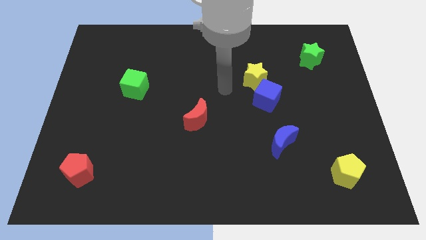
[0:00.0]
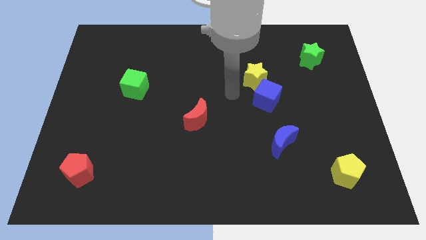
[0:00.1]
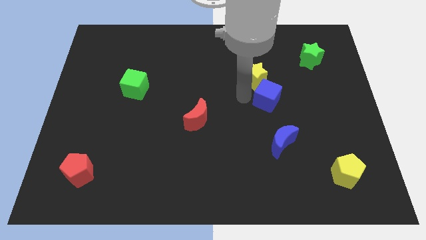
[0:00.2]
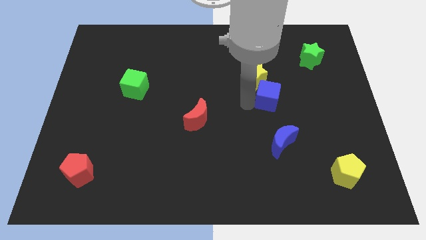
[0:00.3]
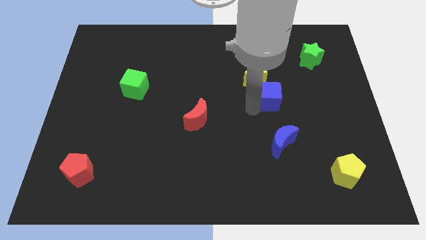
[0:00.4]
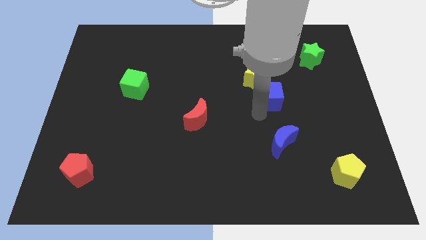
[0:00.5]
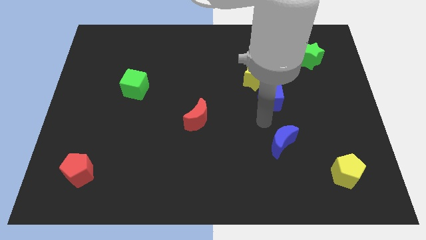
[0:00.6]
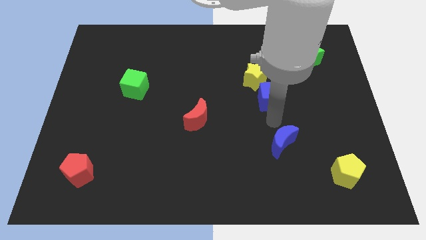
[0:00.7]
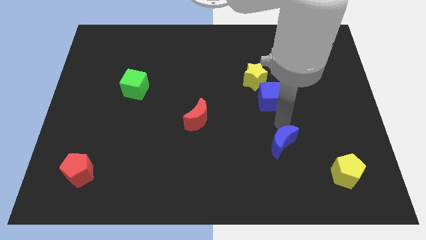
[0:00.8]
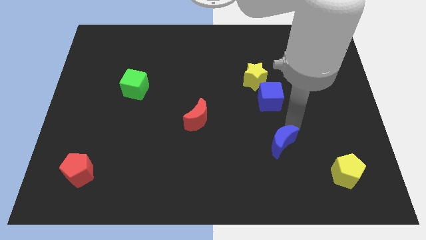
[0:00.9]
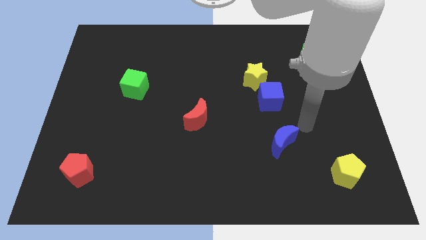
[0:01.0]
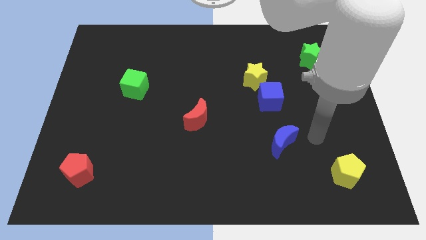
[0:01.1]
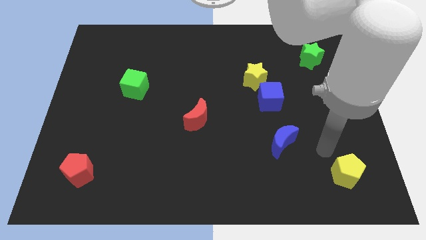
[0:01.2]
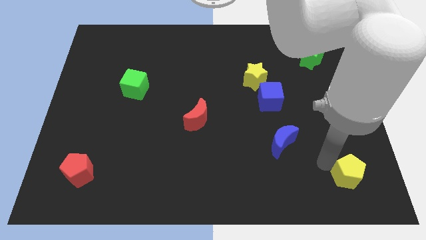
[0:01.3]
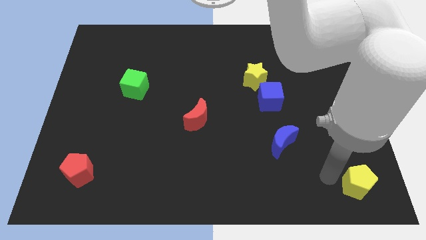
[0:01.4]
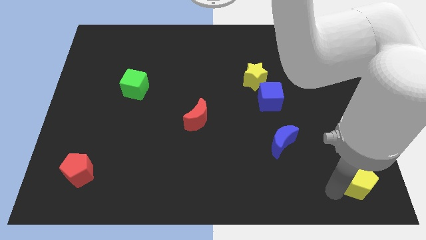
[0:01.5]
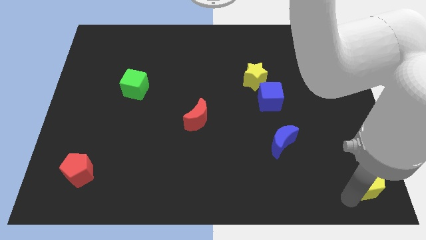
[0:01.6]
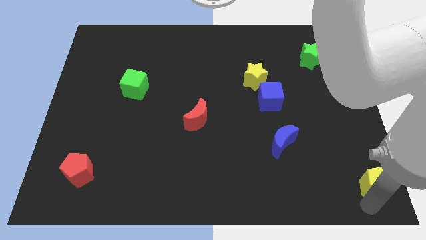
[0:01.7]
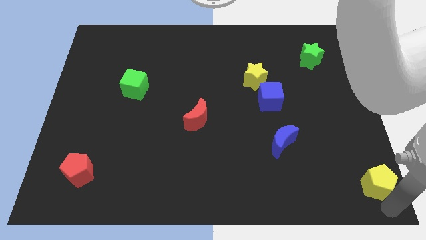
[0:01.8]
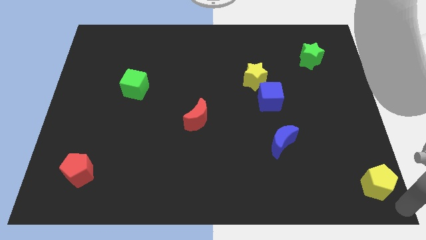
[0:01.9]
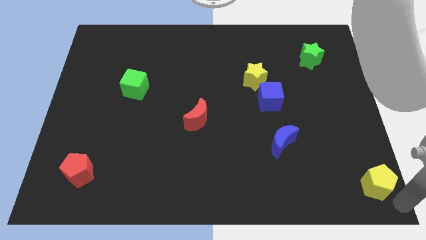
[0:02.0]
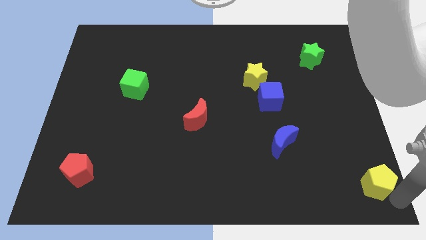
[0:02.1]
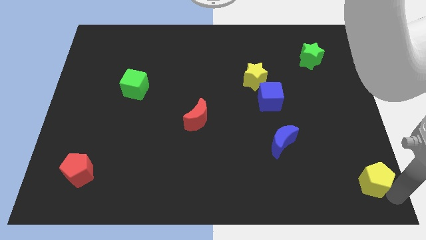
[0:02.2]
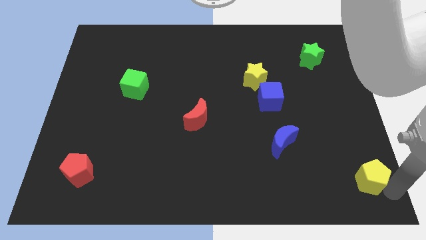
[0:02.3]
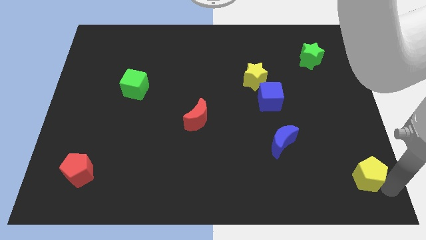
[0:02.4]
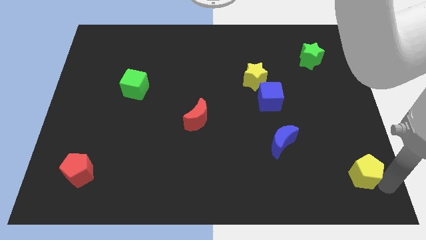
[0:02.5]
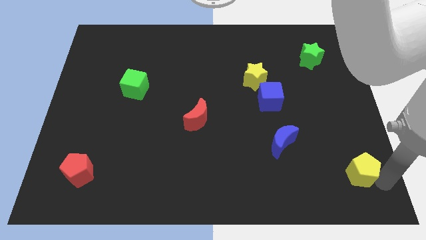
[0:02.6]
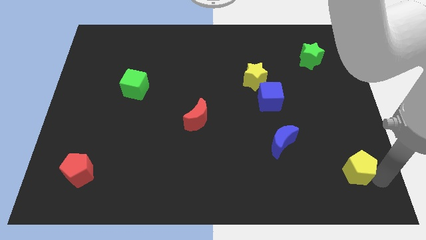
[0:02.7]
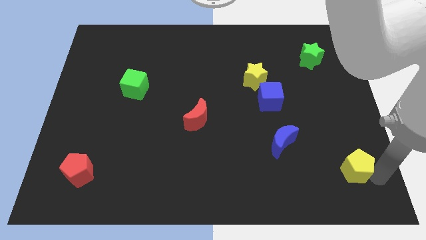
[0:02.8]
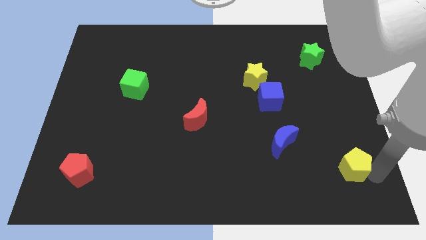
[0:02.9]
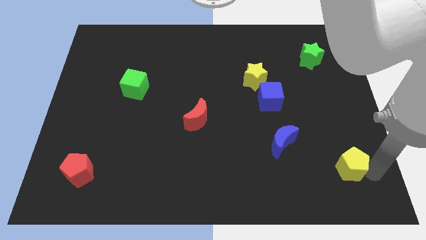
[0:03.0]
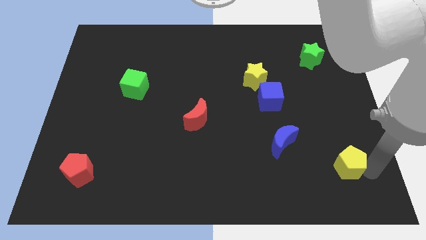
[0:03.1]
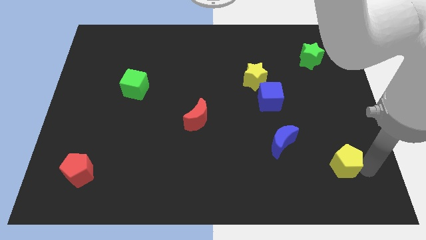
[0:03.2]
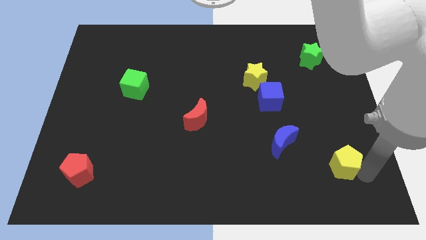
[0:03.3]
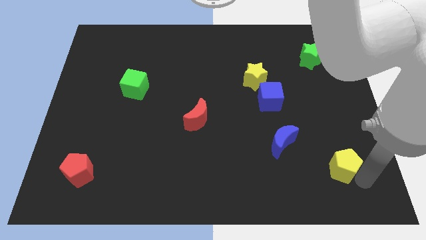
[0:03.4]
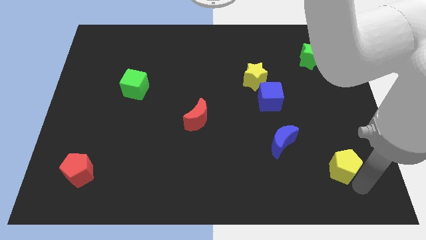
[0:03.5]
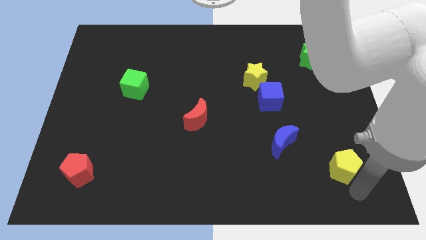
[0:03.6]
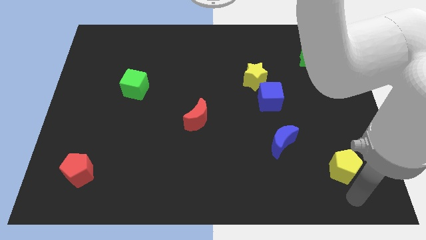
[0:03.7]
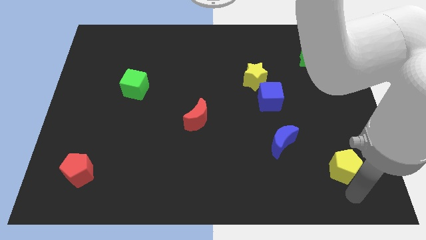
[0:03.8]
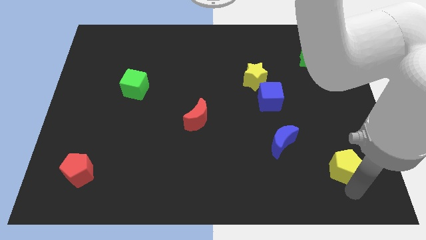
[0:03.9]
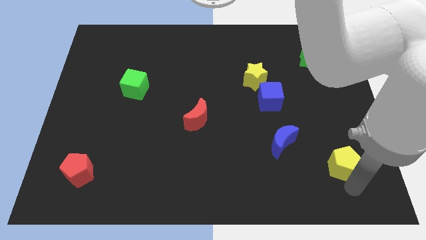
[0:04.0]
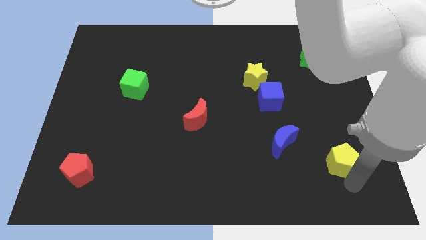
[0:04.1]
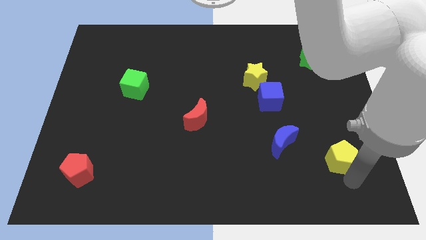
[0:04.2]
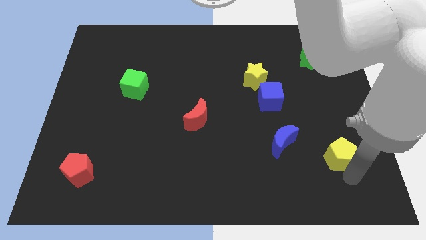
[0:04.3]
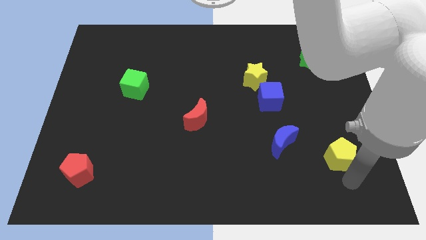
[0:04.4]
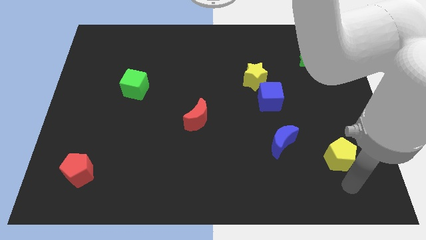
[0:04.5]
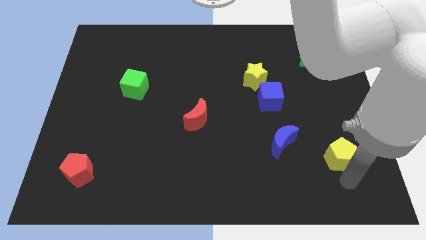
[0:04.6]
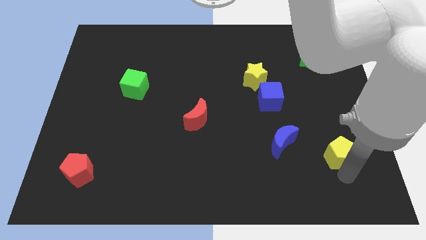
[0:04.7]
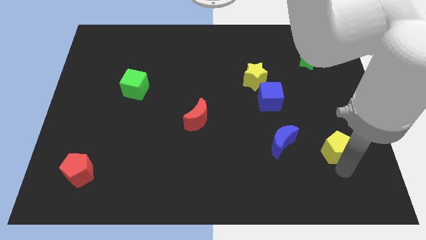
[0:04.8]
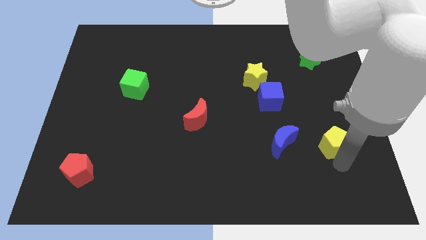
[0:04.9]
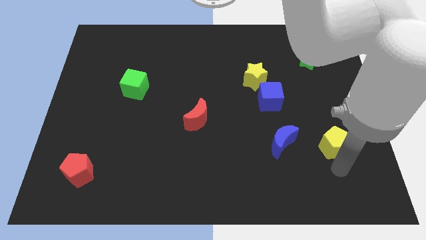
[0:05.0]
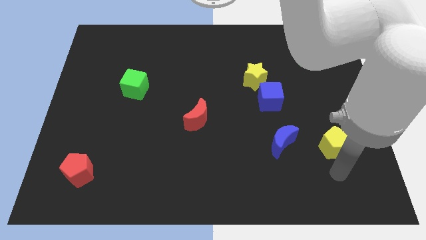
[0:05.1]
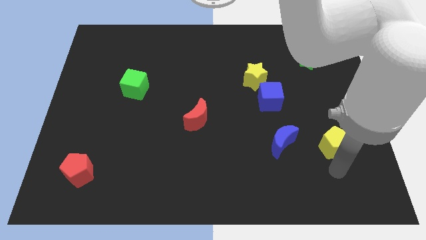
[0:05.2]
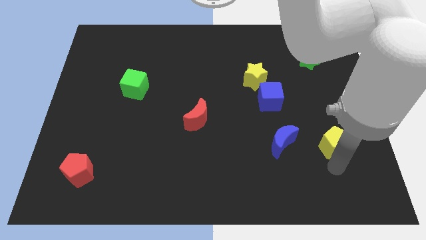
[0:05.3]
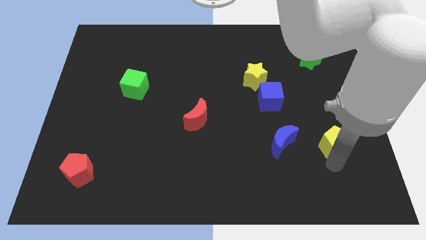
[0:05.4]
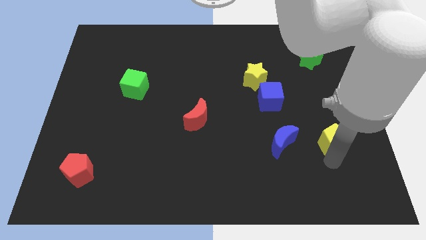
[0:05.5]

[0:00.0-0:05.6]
slightly slide the yellow pentagon up

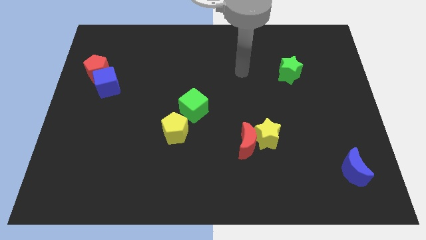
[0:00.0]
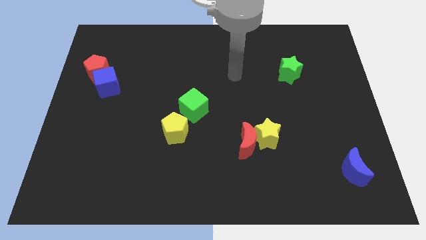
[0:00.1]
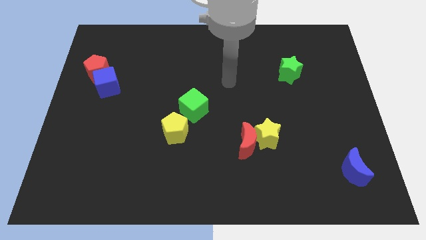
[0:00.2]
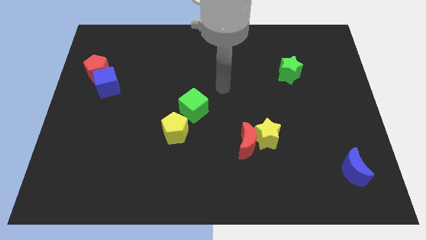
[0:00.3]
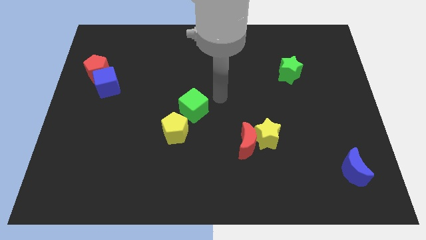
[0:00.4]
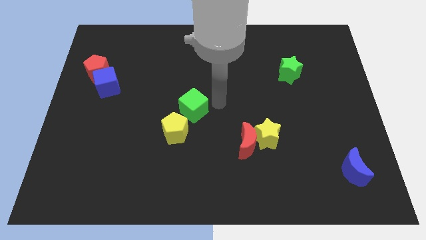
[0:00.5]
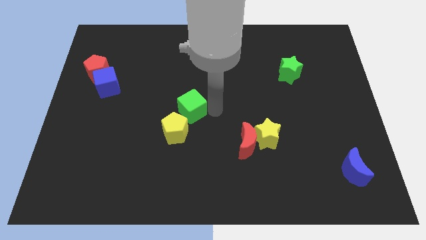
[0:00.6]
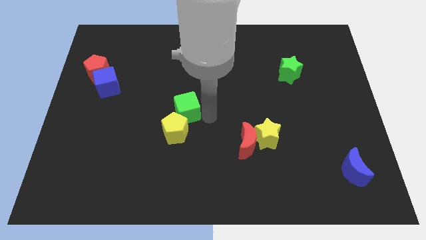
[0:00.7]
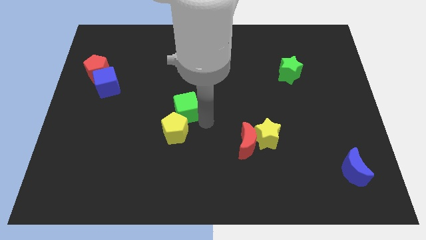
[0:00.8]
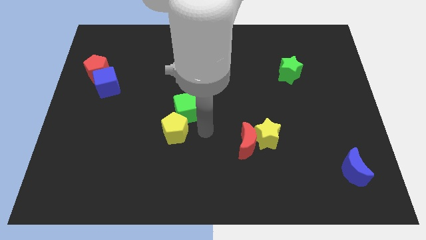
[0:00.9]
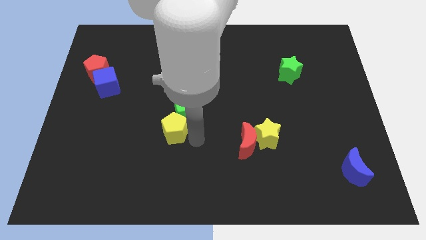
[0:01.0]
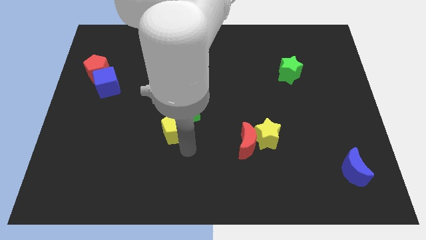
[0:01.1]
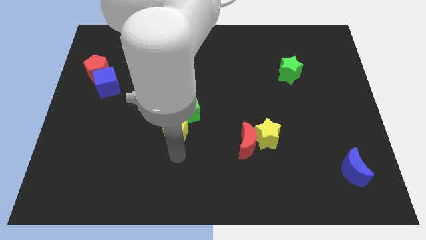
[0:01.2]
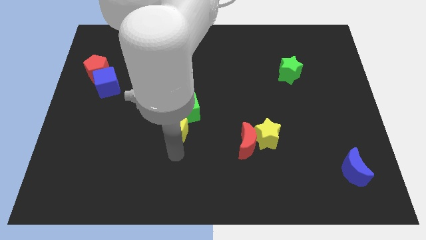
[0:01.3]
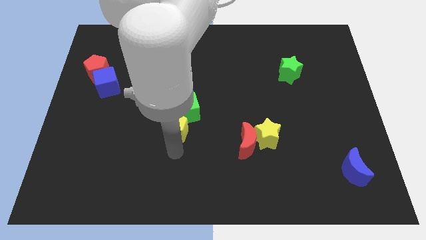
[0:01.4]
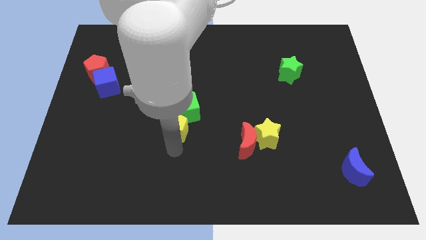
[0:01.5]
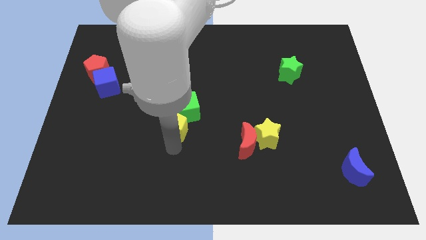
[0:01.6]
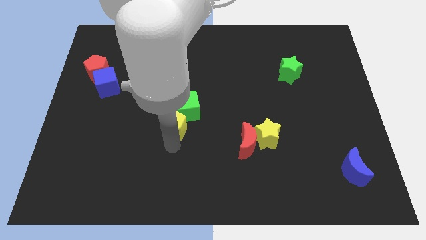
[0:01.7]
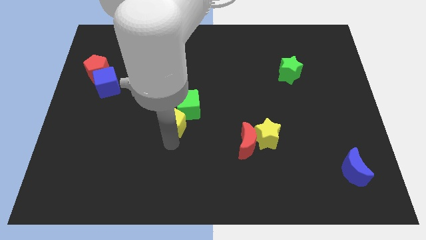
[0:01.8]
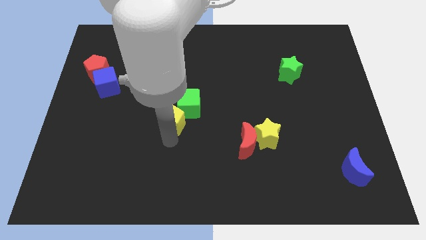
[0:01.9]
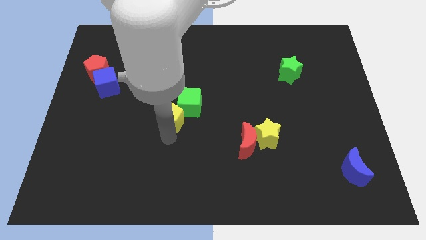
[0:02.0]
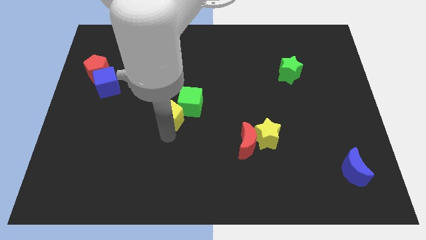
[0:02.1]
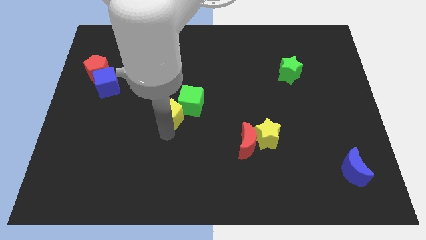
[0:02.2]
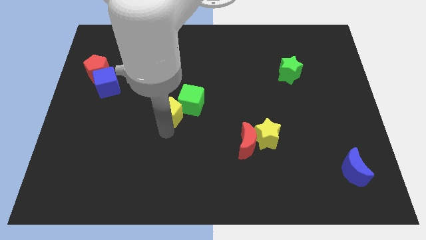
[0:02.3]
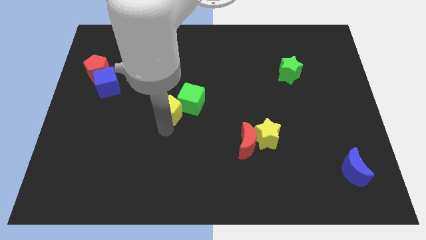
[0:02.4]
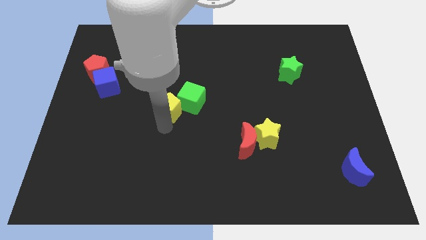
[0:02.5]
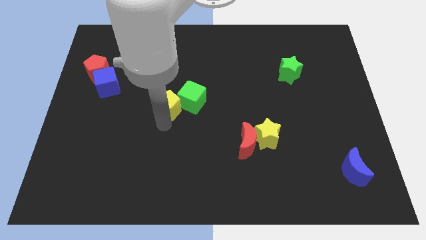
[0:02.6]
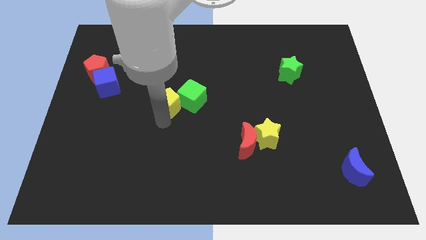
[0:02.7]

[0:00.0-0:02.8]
push the yellow pentagon up a little
